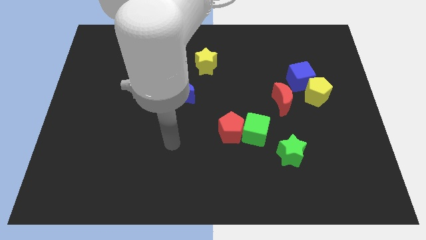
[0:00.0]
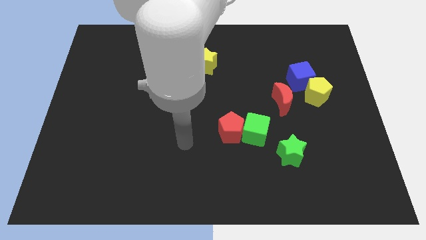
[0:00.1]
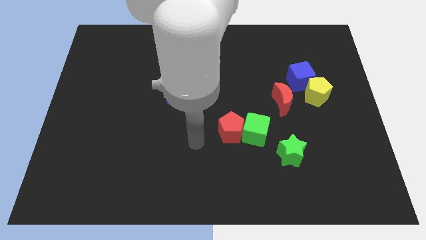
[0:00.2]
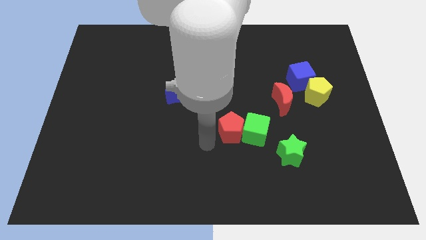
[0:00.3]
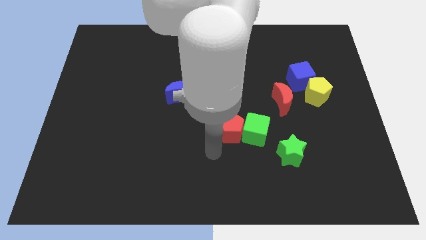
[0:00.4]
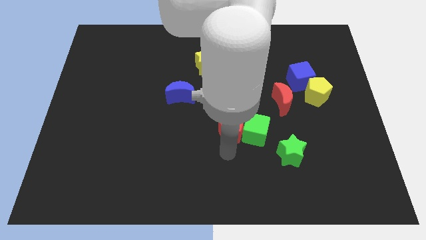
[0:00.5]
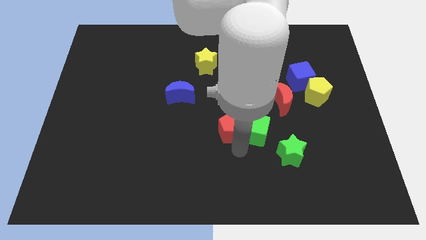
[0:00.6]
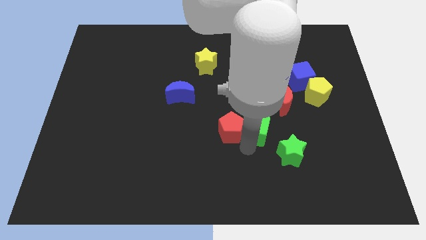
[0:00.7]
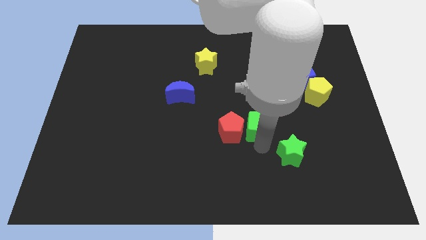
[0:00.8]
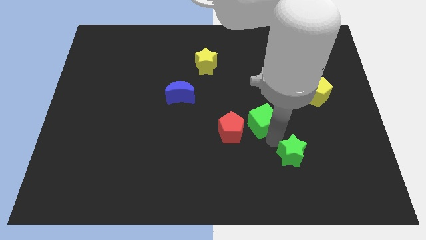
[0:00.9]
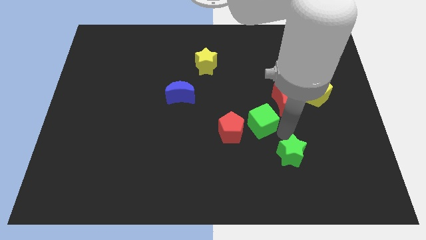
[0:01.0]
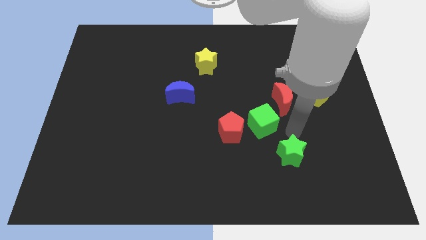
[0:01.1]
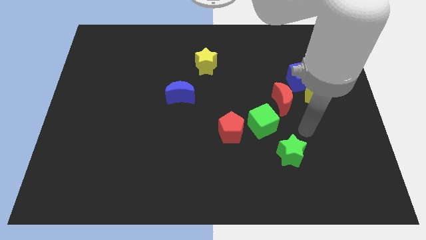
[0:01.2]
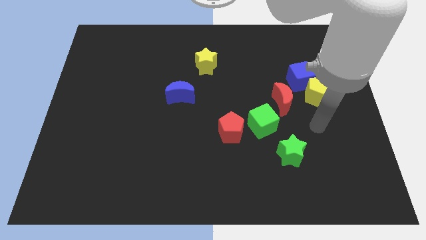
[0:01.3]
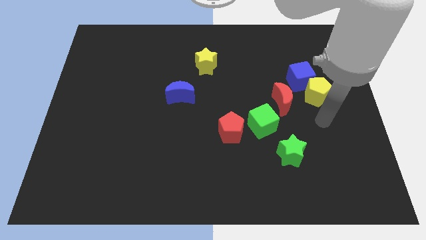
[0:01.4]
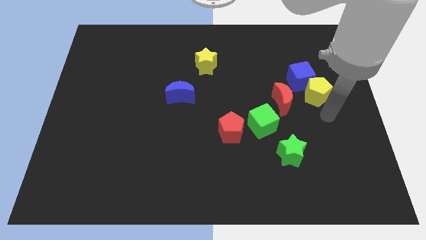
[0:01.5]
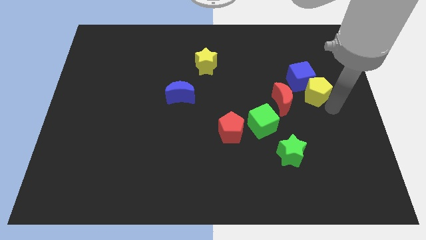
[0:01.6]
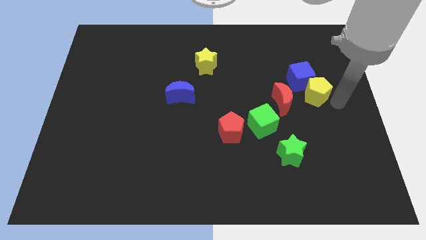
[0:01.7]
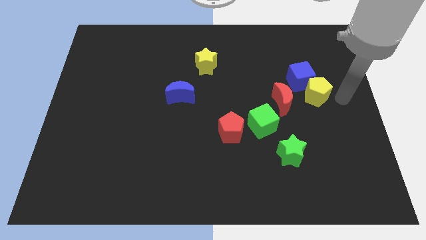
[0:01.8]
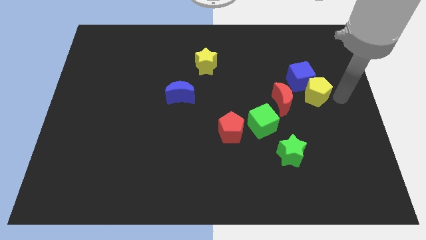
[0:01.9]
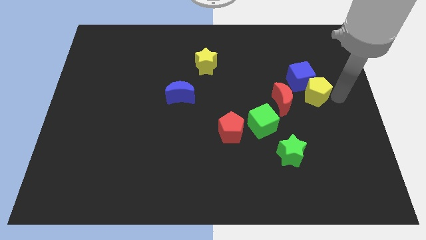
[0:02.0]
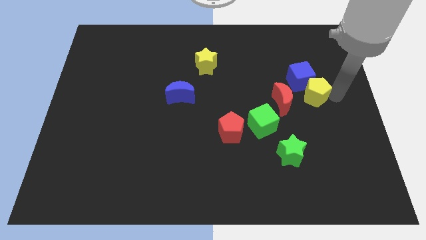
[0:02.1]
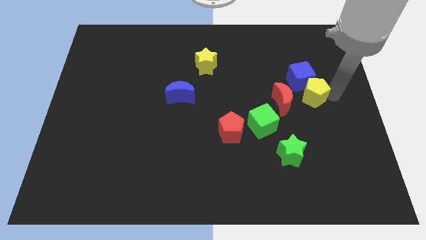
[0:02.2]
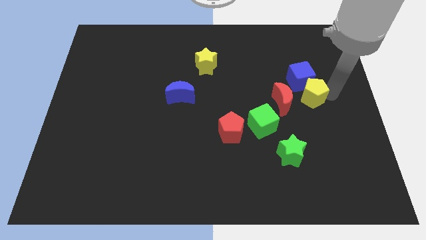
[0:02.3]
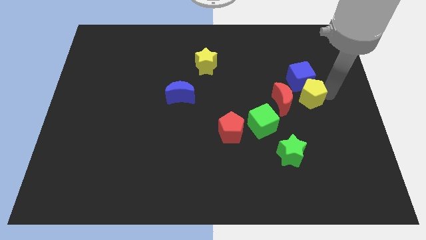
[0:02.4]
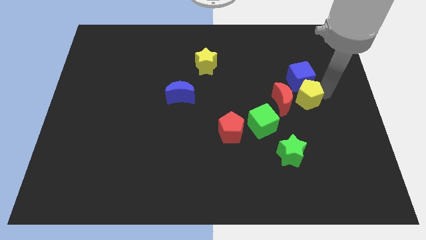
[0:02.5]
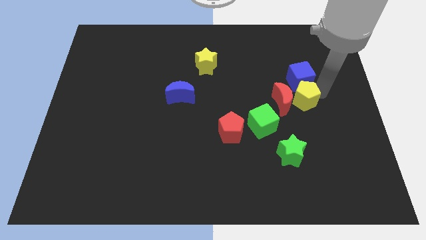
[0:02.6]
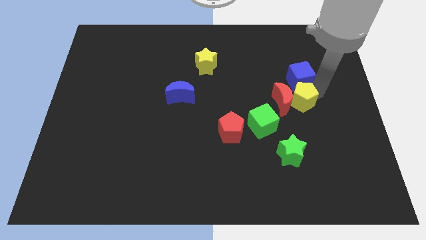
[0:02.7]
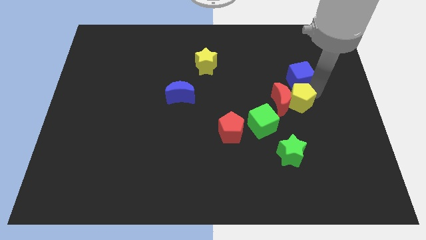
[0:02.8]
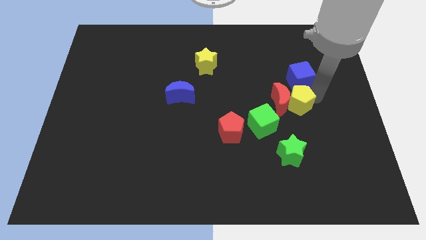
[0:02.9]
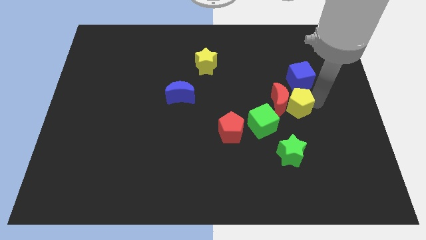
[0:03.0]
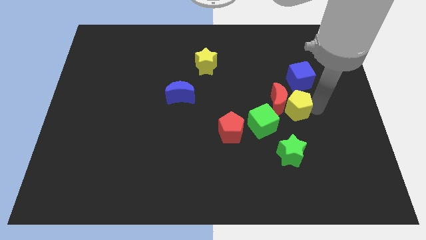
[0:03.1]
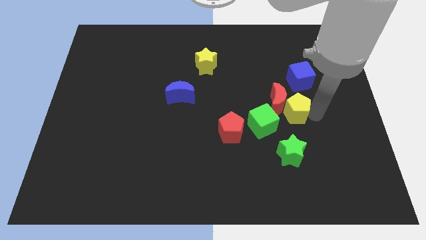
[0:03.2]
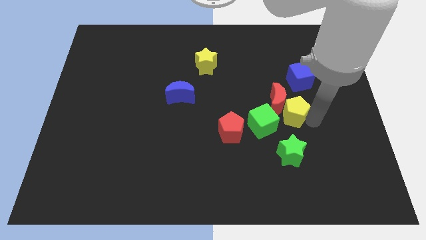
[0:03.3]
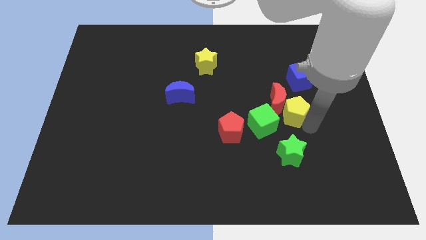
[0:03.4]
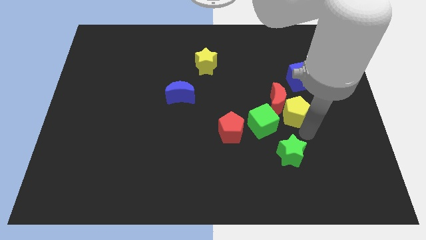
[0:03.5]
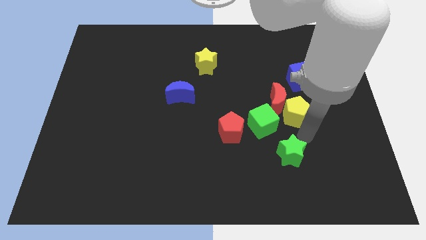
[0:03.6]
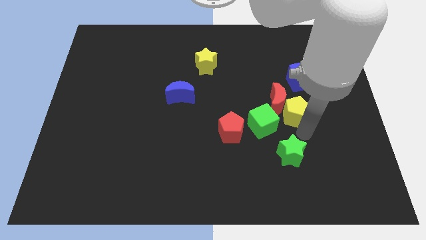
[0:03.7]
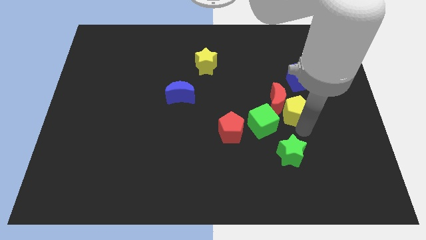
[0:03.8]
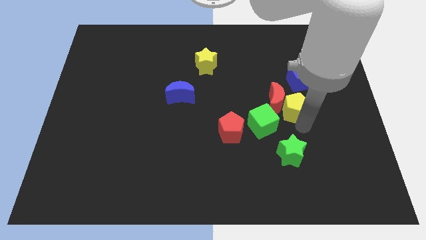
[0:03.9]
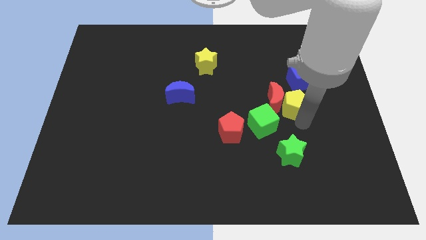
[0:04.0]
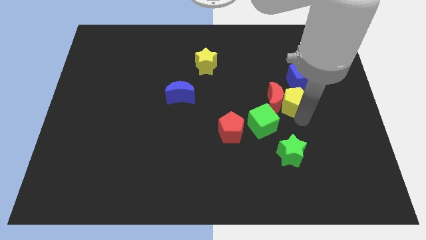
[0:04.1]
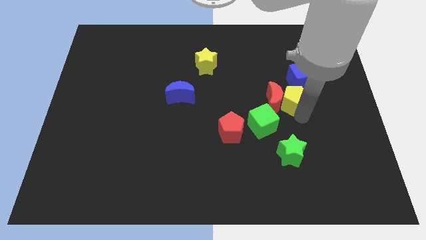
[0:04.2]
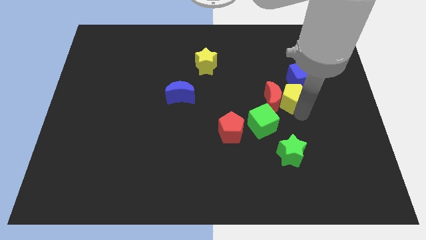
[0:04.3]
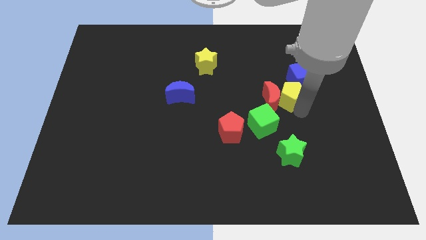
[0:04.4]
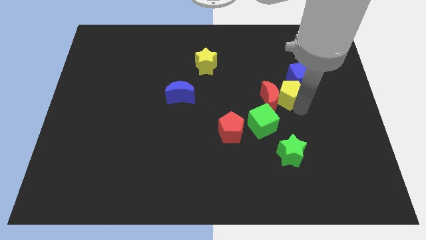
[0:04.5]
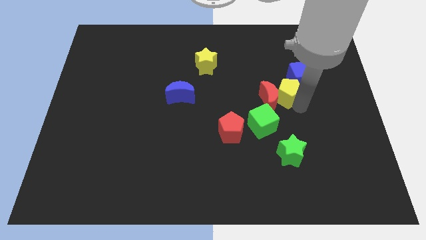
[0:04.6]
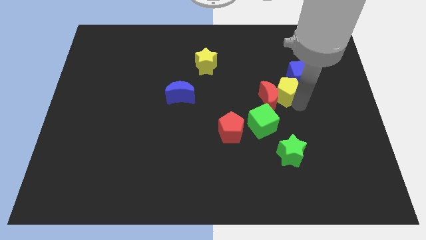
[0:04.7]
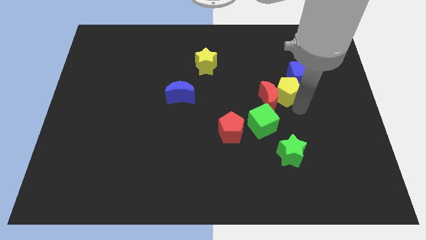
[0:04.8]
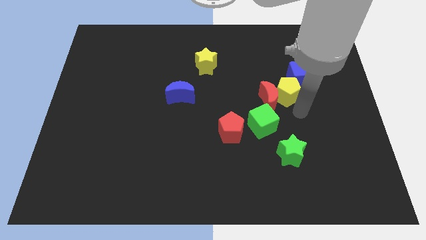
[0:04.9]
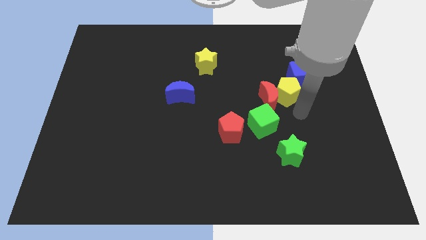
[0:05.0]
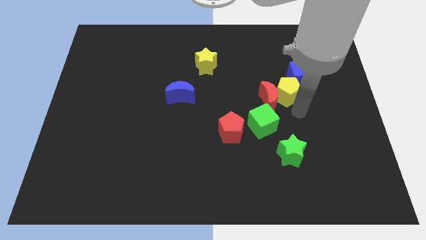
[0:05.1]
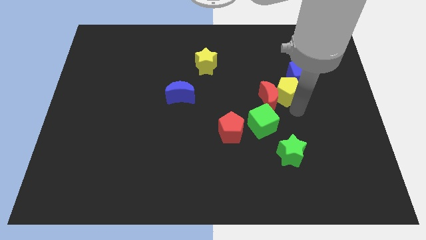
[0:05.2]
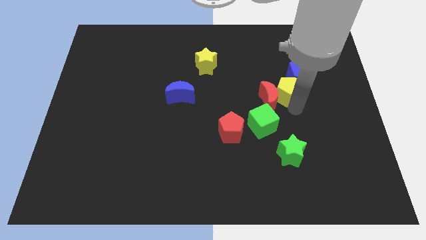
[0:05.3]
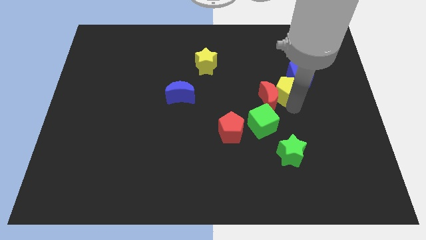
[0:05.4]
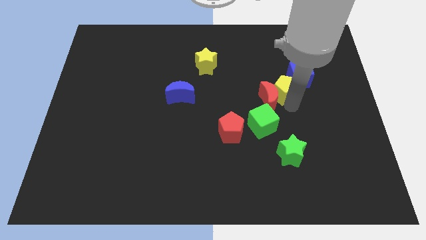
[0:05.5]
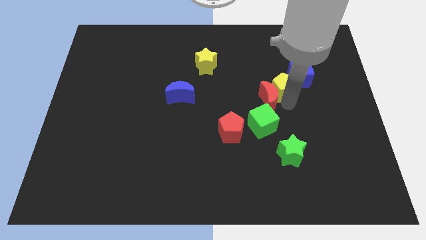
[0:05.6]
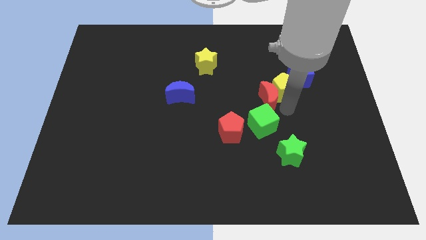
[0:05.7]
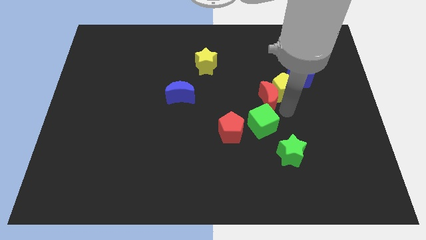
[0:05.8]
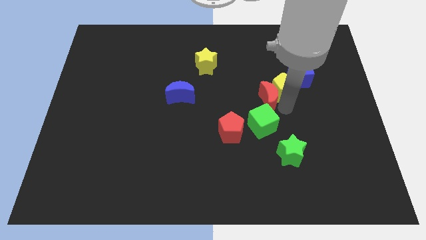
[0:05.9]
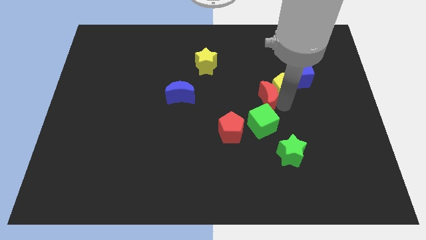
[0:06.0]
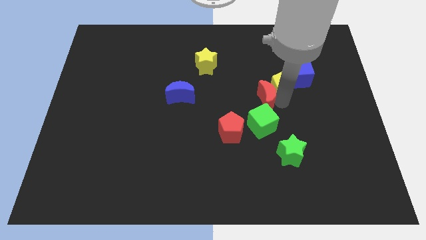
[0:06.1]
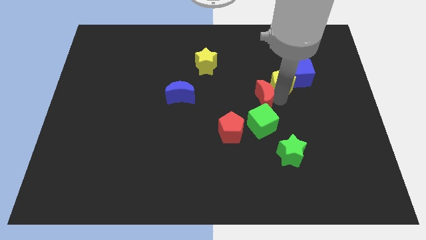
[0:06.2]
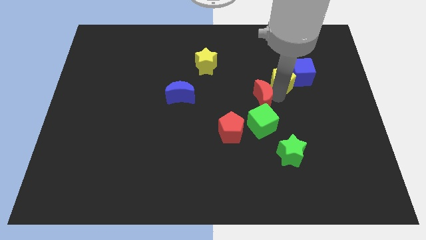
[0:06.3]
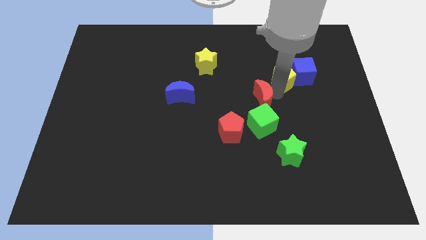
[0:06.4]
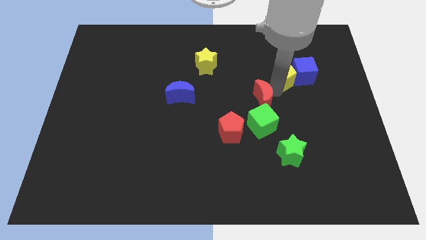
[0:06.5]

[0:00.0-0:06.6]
move the yellow pentagon diagonally up and to the left of the blue cube
